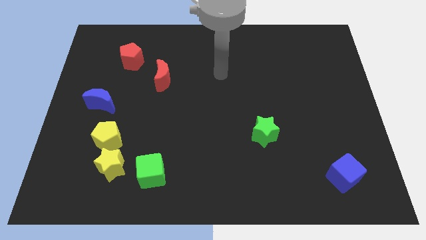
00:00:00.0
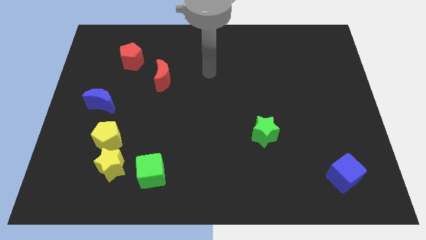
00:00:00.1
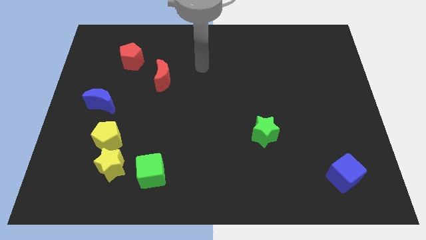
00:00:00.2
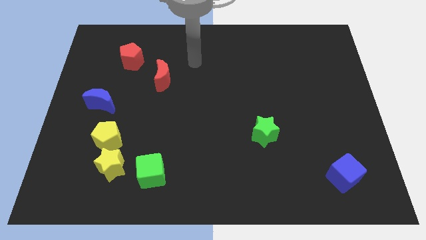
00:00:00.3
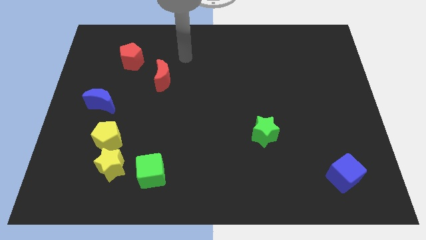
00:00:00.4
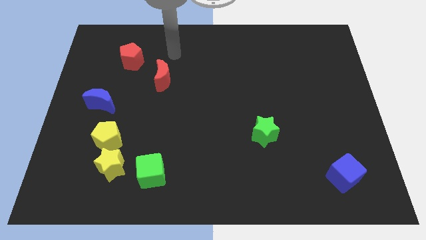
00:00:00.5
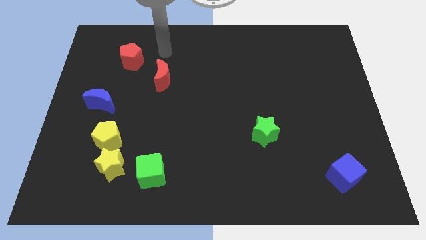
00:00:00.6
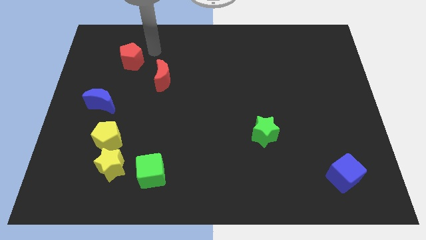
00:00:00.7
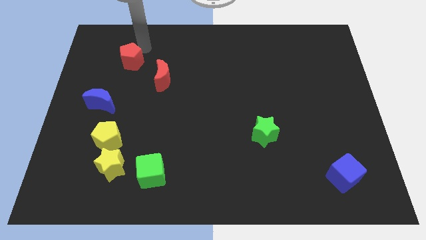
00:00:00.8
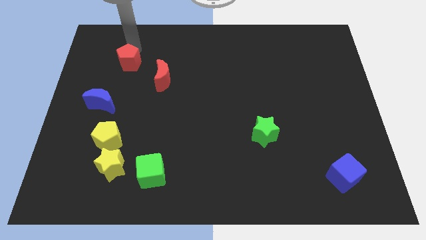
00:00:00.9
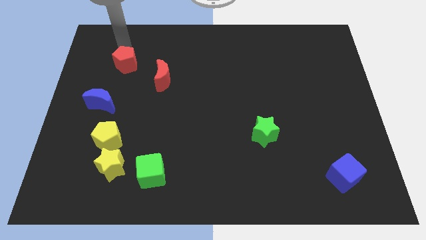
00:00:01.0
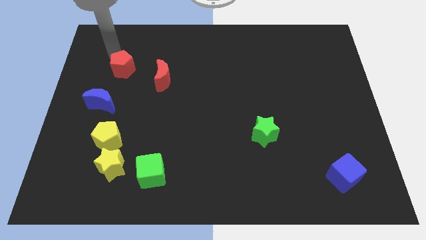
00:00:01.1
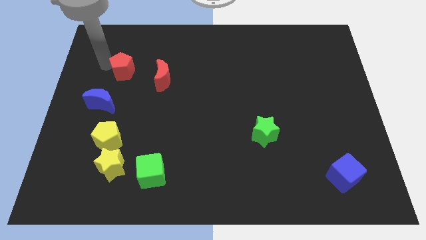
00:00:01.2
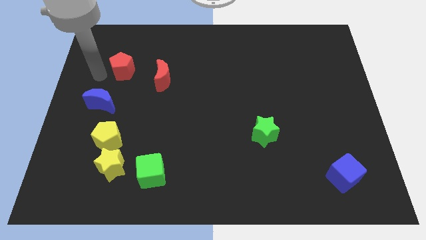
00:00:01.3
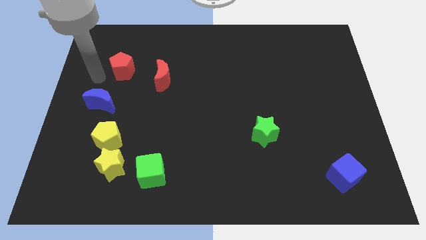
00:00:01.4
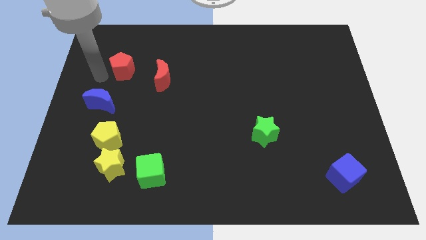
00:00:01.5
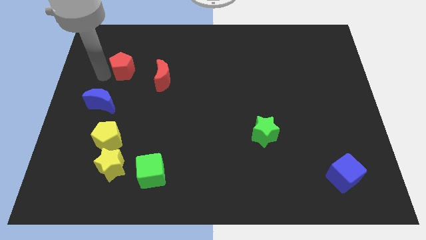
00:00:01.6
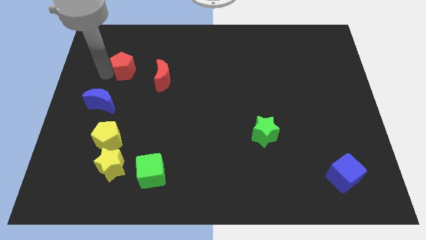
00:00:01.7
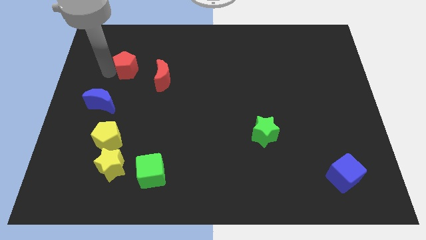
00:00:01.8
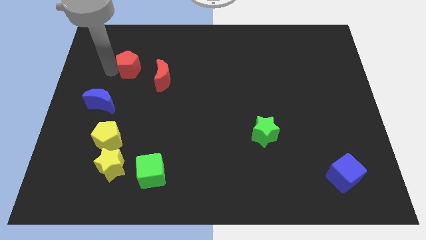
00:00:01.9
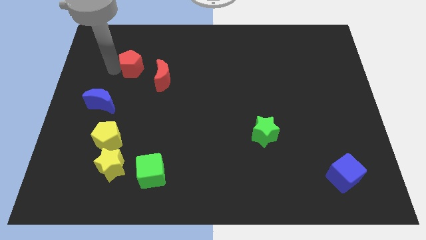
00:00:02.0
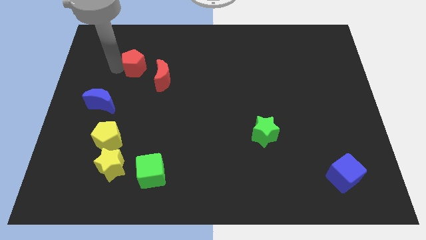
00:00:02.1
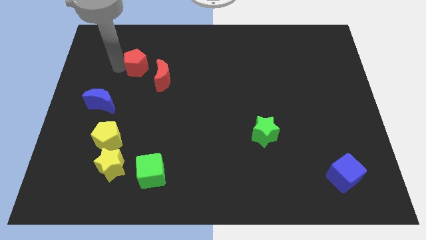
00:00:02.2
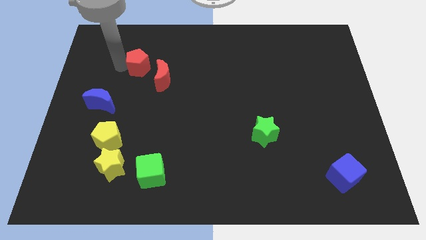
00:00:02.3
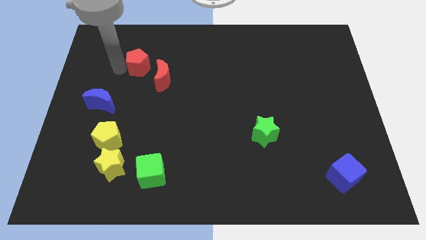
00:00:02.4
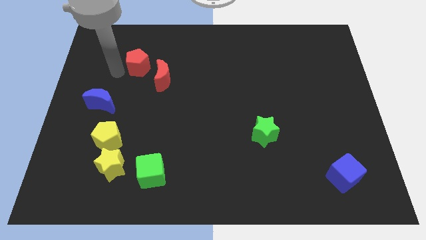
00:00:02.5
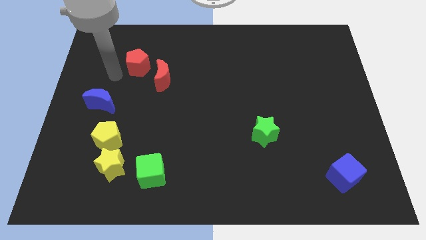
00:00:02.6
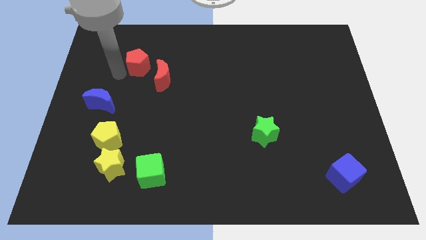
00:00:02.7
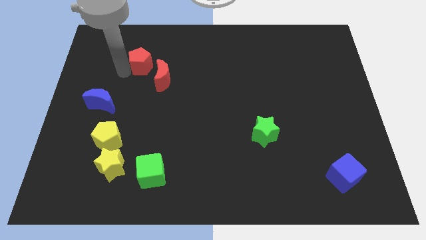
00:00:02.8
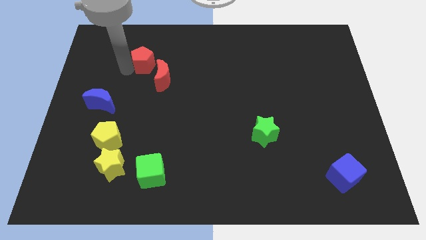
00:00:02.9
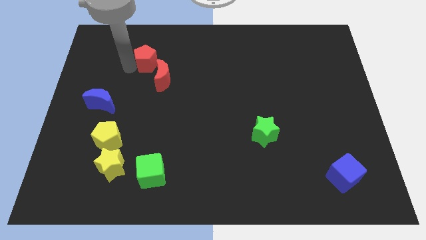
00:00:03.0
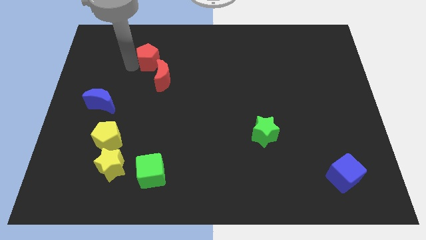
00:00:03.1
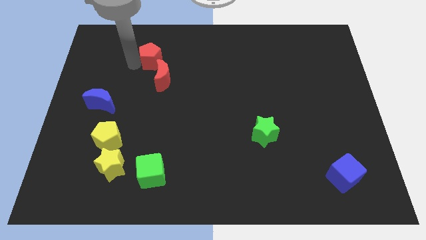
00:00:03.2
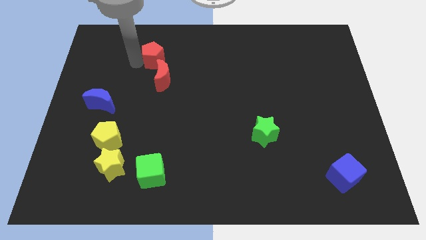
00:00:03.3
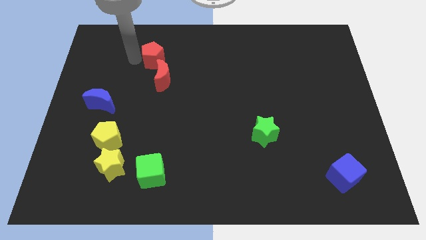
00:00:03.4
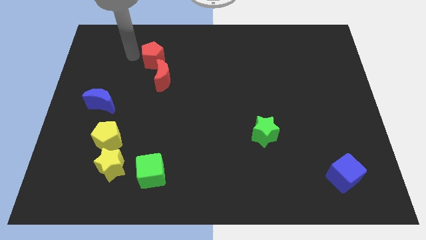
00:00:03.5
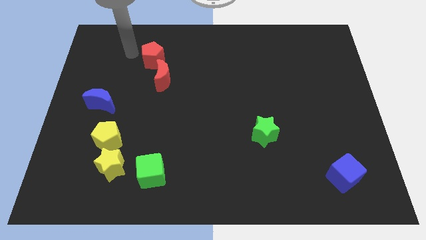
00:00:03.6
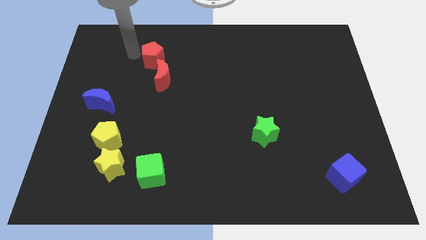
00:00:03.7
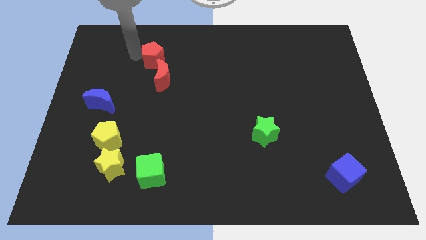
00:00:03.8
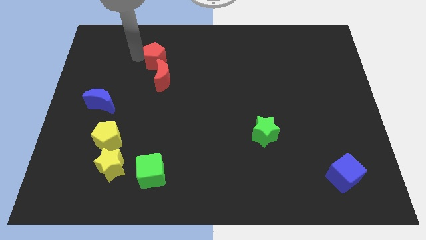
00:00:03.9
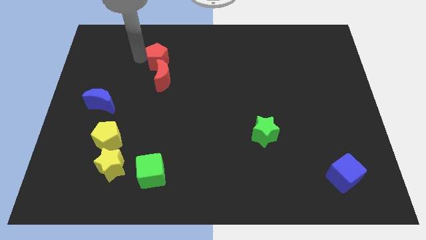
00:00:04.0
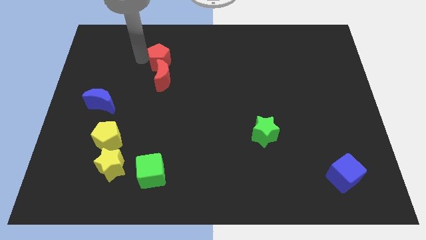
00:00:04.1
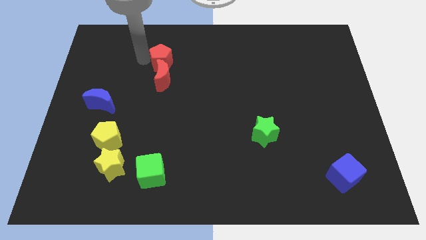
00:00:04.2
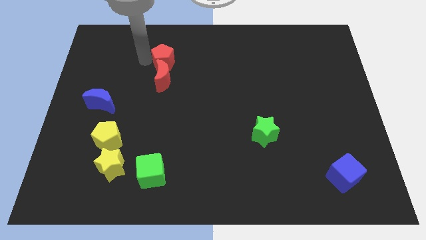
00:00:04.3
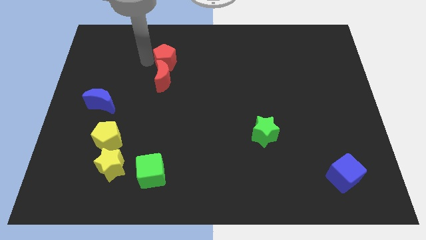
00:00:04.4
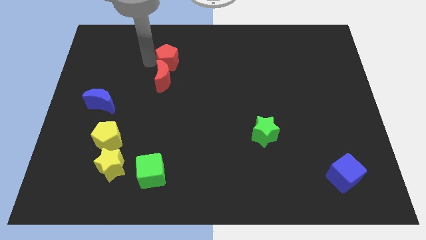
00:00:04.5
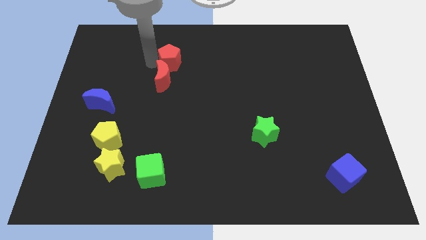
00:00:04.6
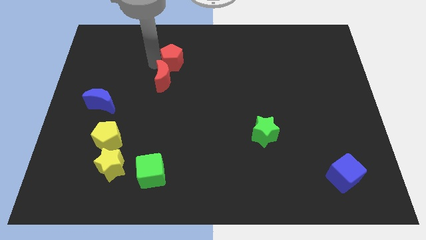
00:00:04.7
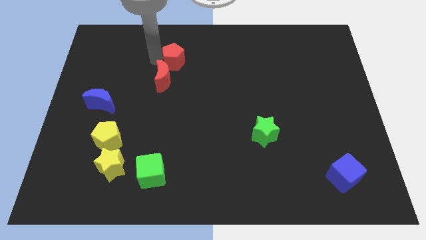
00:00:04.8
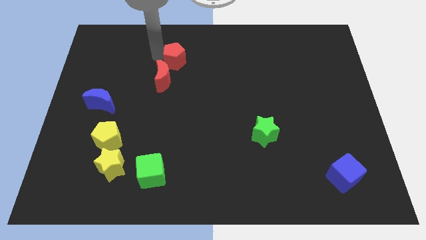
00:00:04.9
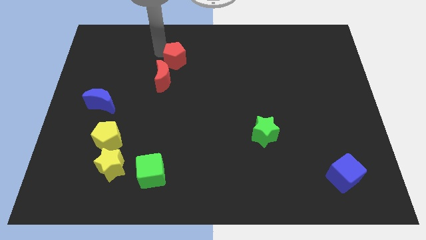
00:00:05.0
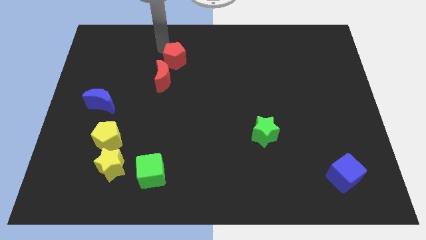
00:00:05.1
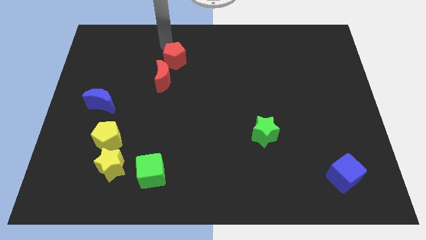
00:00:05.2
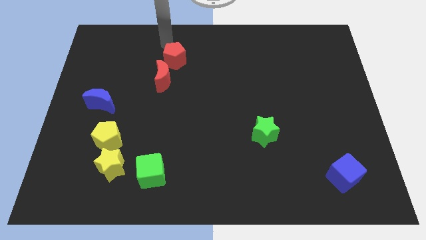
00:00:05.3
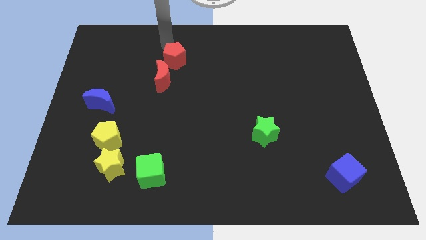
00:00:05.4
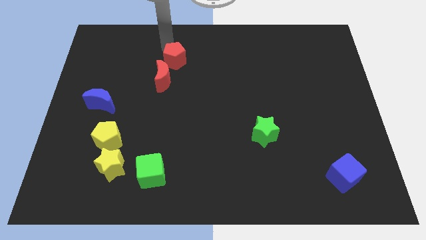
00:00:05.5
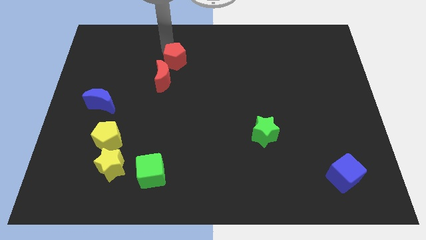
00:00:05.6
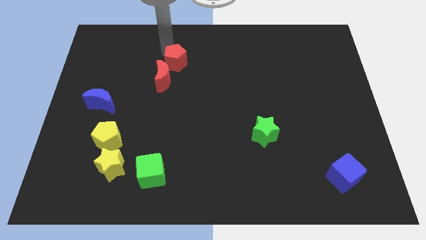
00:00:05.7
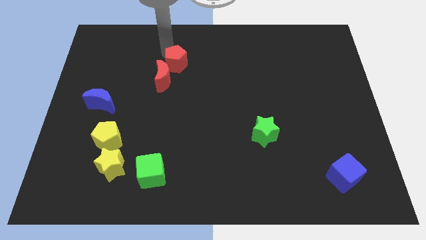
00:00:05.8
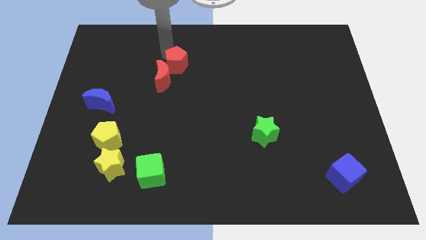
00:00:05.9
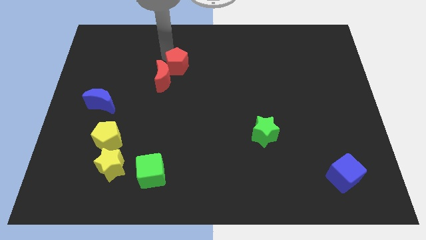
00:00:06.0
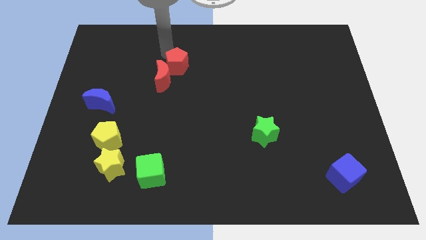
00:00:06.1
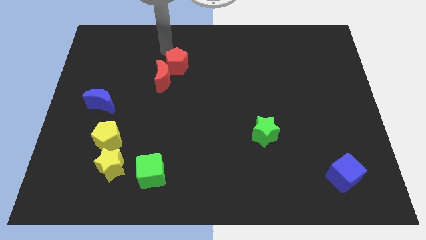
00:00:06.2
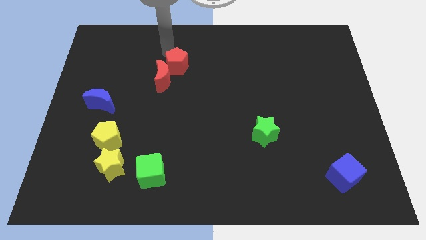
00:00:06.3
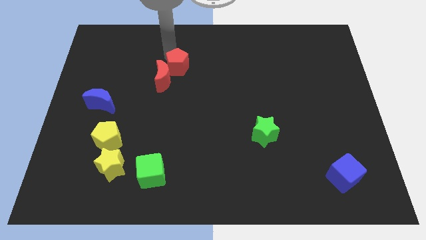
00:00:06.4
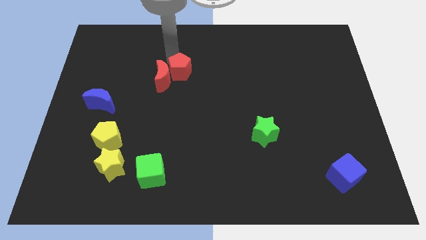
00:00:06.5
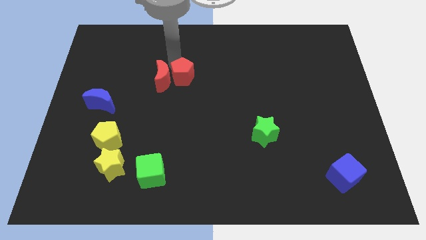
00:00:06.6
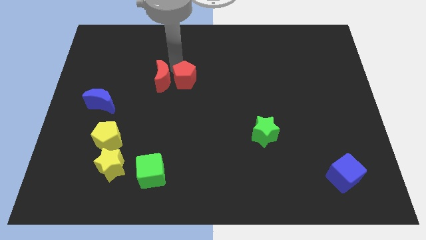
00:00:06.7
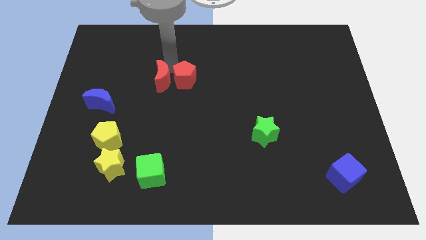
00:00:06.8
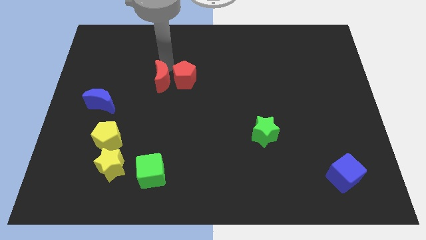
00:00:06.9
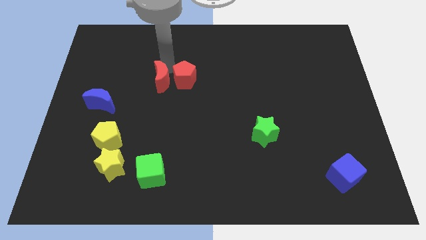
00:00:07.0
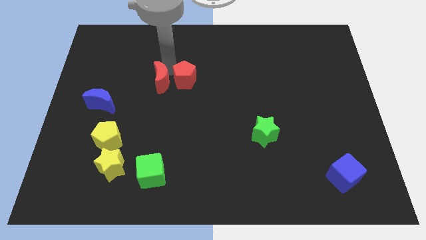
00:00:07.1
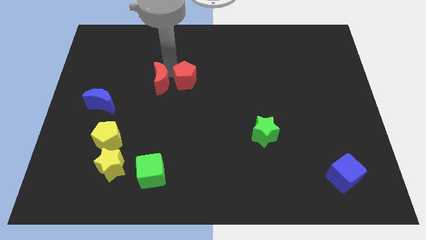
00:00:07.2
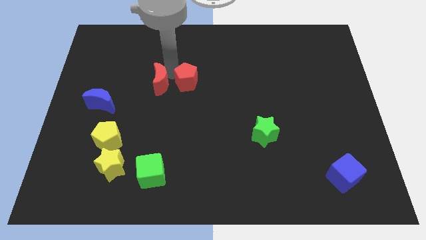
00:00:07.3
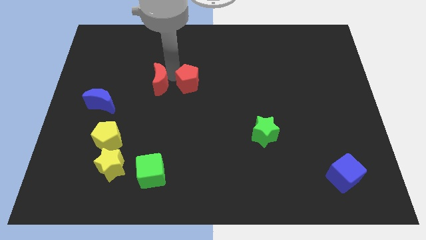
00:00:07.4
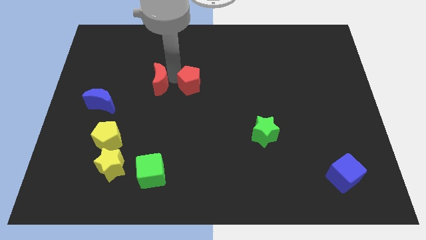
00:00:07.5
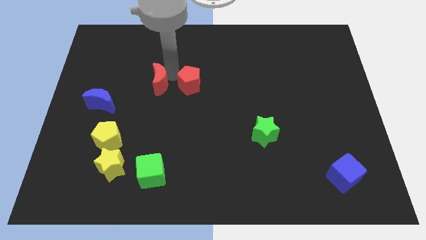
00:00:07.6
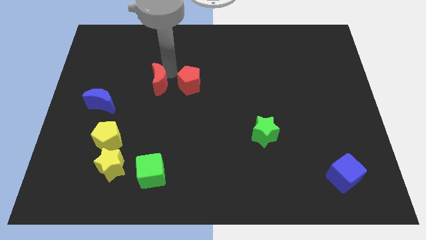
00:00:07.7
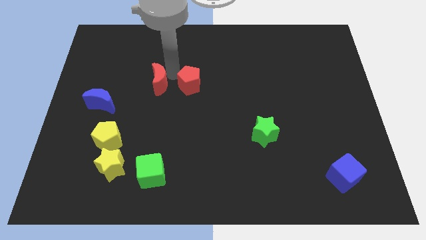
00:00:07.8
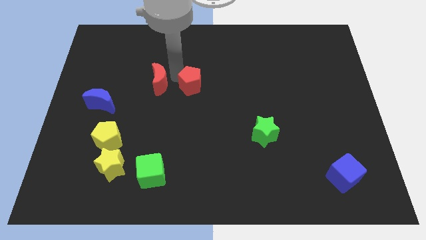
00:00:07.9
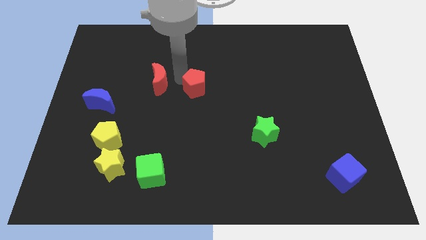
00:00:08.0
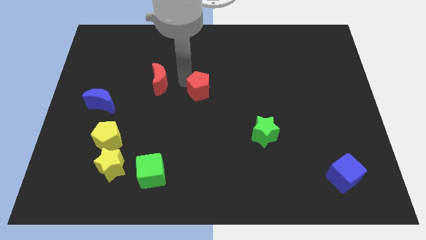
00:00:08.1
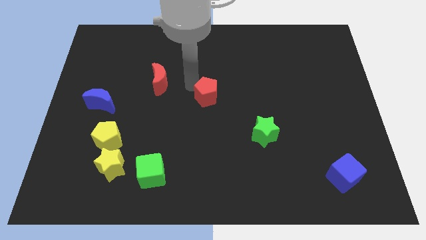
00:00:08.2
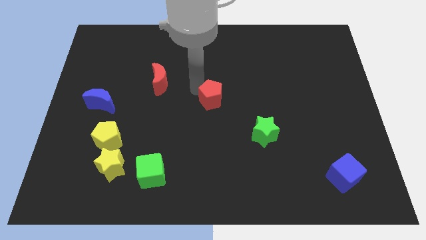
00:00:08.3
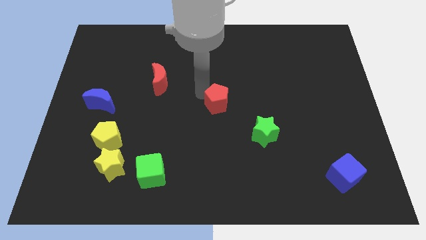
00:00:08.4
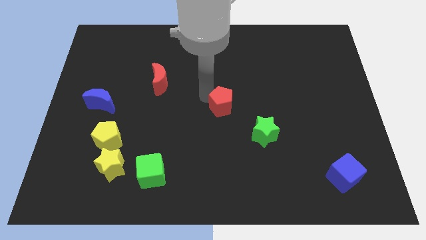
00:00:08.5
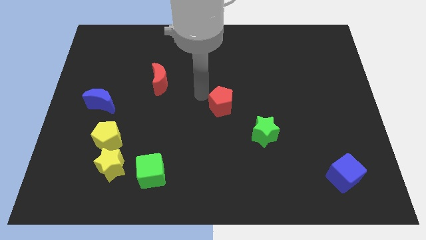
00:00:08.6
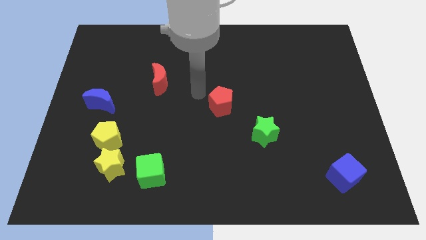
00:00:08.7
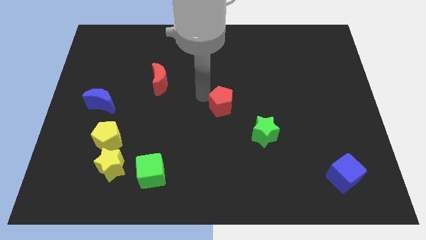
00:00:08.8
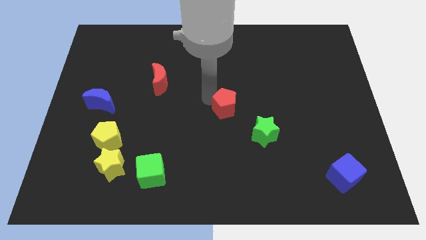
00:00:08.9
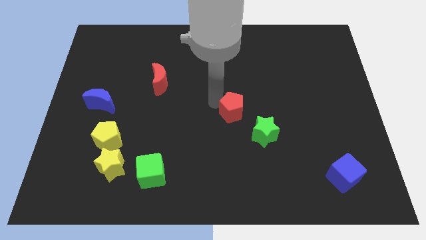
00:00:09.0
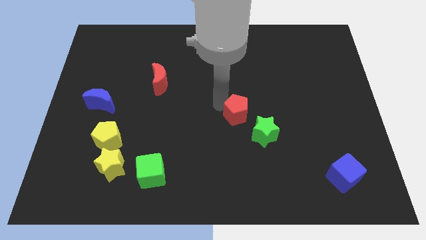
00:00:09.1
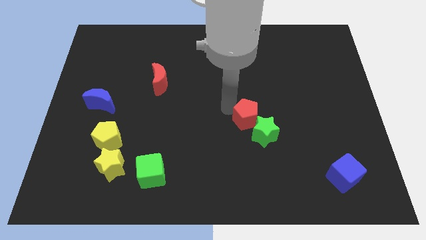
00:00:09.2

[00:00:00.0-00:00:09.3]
push the red pentagon next to the green star
